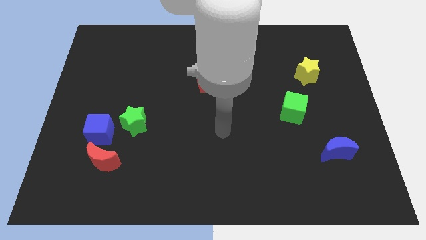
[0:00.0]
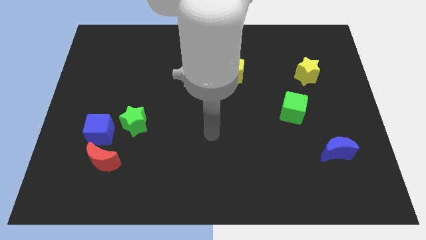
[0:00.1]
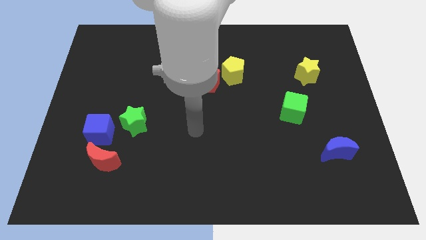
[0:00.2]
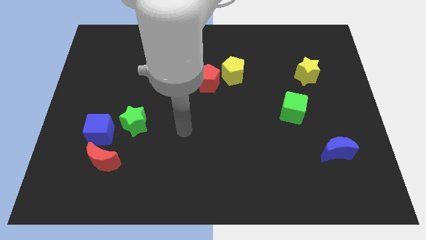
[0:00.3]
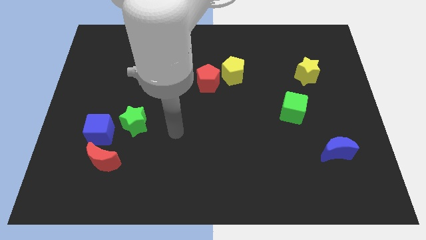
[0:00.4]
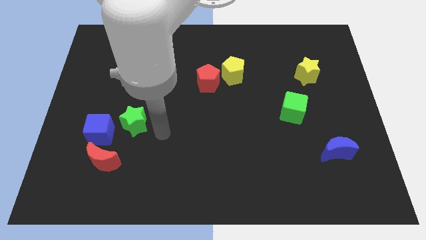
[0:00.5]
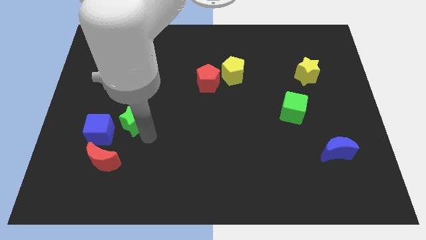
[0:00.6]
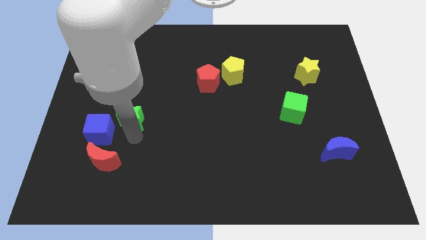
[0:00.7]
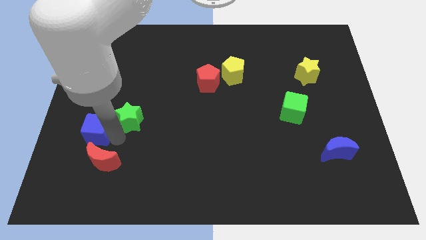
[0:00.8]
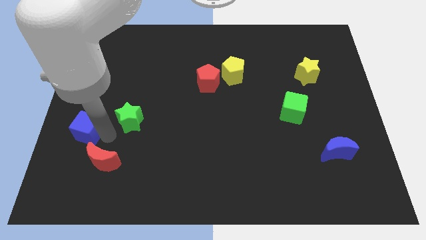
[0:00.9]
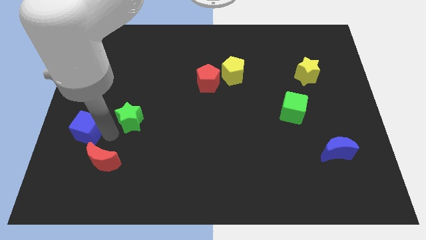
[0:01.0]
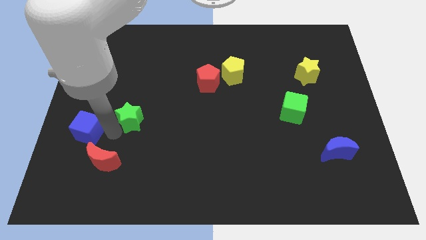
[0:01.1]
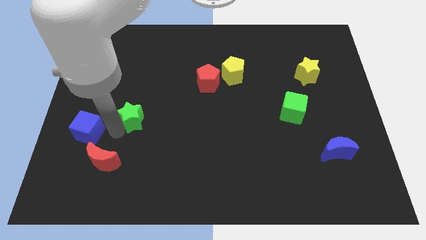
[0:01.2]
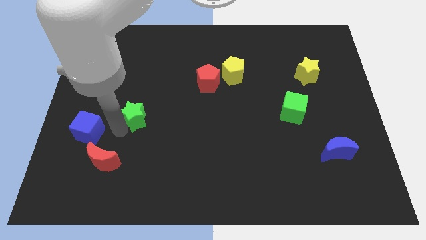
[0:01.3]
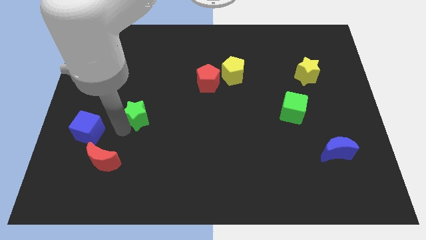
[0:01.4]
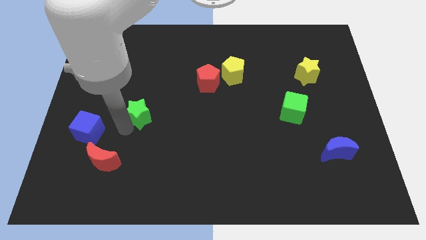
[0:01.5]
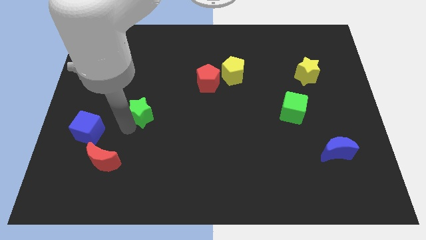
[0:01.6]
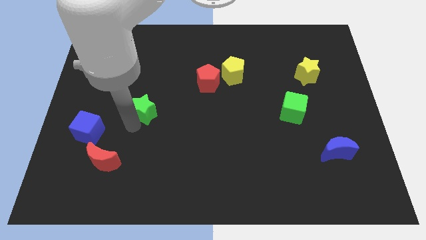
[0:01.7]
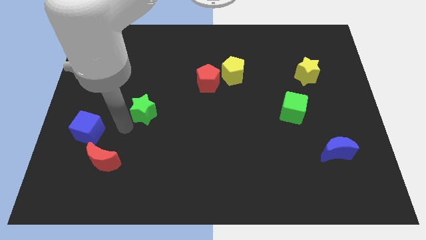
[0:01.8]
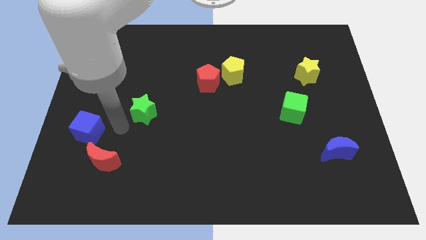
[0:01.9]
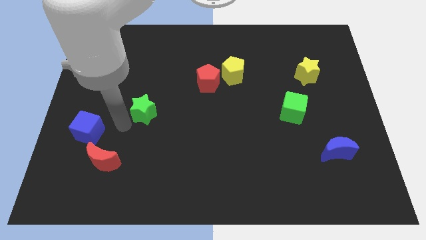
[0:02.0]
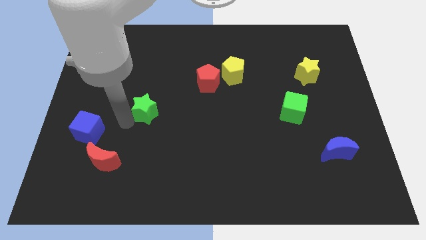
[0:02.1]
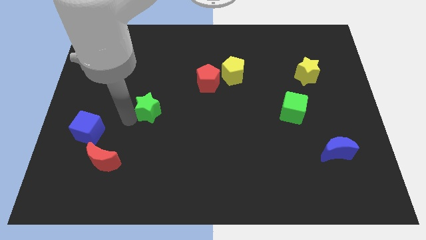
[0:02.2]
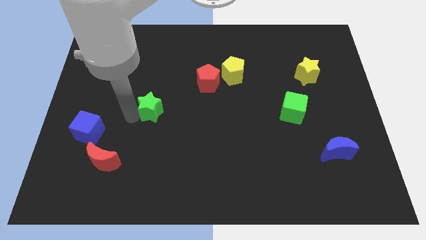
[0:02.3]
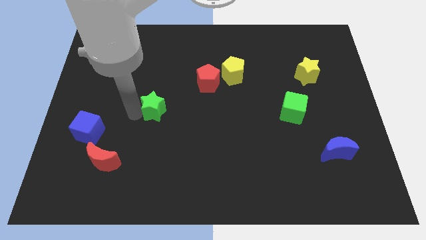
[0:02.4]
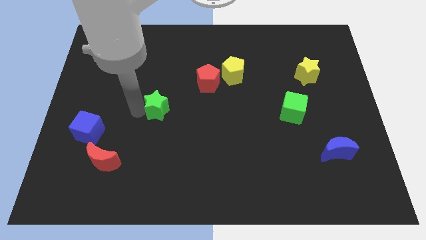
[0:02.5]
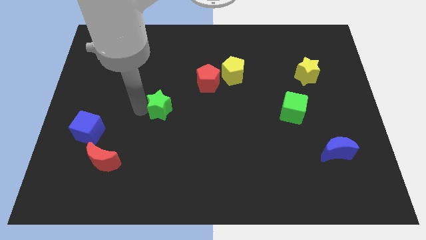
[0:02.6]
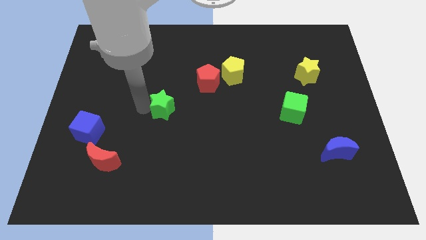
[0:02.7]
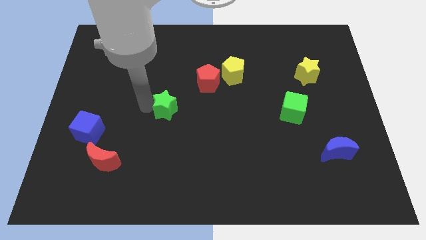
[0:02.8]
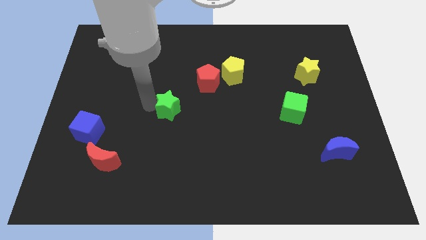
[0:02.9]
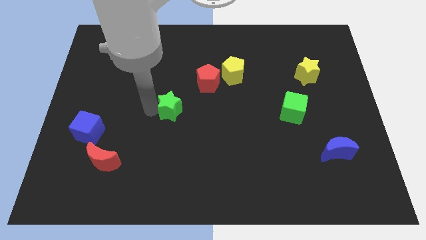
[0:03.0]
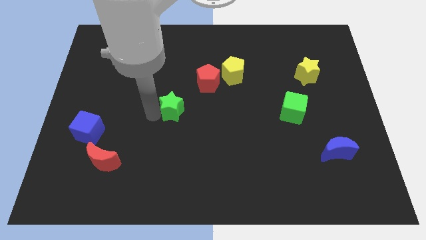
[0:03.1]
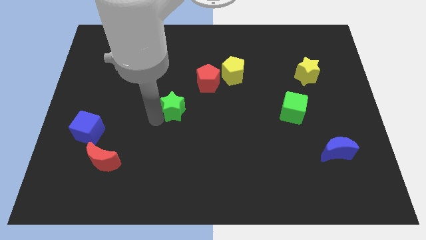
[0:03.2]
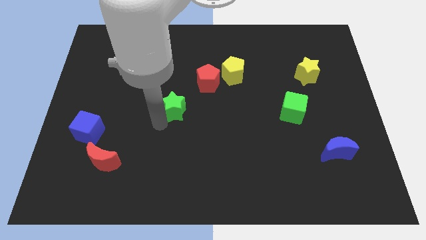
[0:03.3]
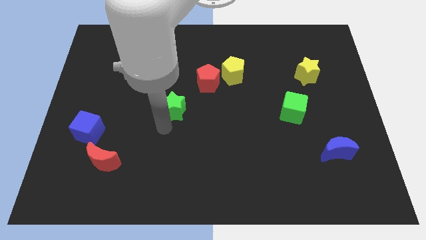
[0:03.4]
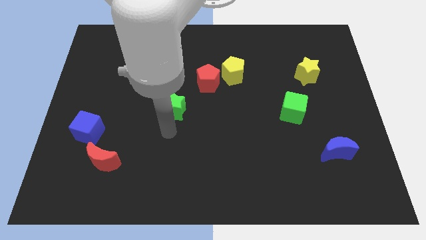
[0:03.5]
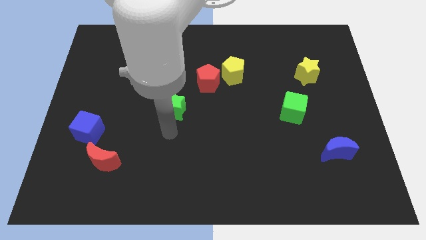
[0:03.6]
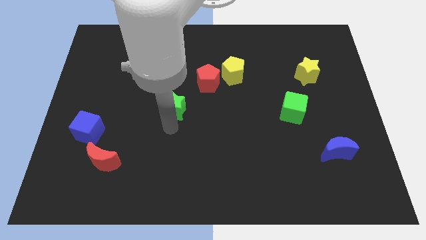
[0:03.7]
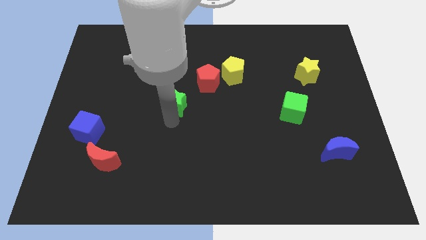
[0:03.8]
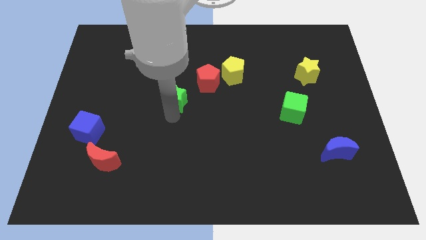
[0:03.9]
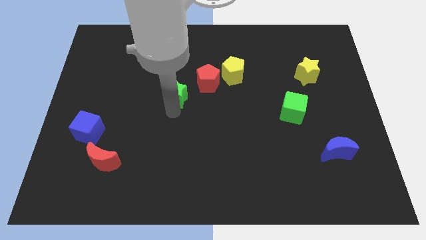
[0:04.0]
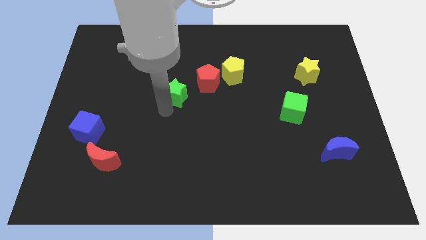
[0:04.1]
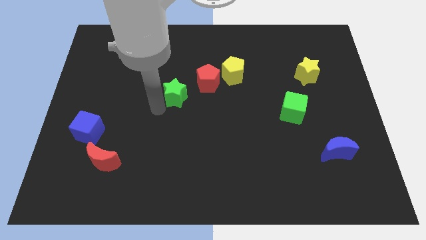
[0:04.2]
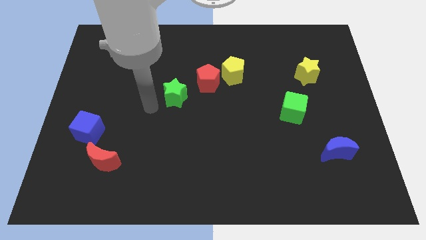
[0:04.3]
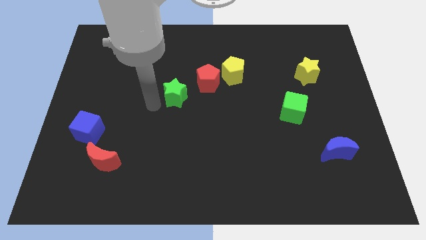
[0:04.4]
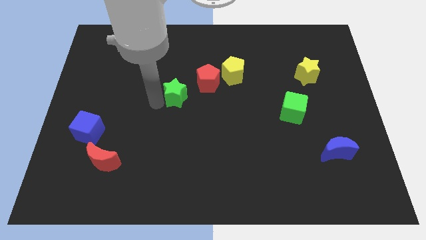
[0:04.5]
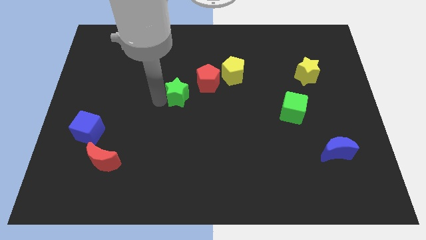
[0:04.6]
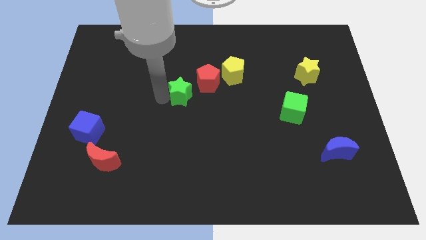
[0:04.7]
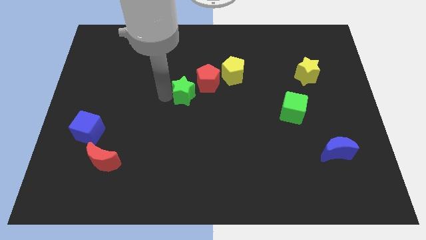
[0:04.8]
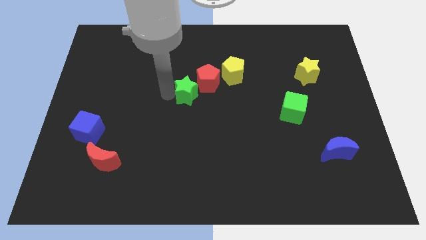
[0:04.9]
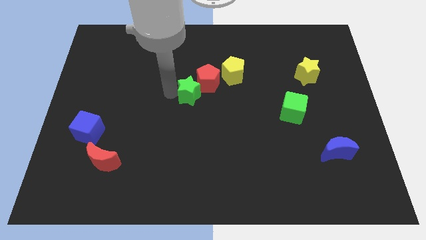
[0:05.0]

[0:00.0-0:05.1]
slide the green star next to the red pentagon

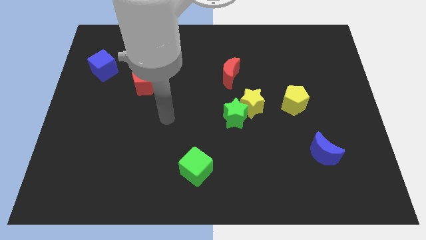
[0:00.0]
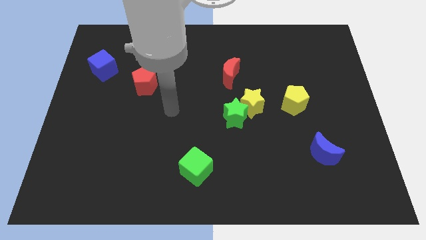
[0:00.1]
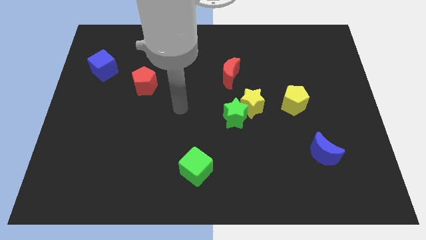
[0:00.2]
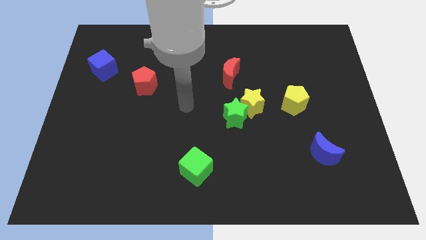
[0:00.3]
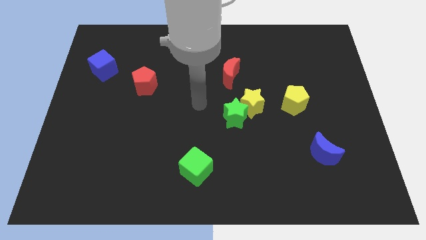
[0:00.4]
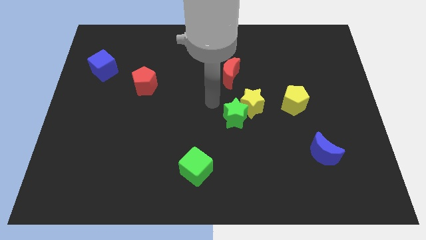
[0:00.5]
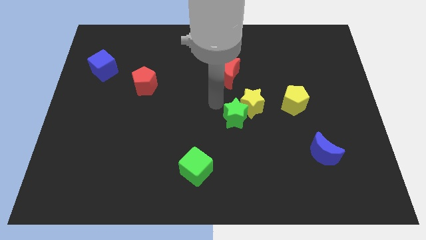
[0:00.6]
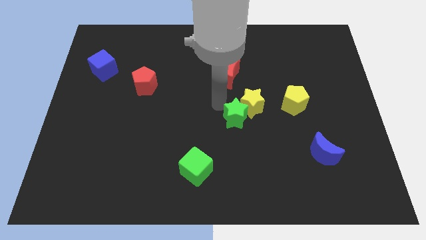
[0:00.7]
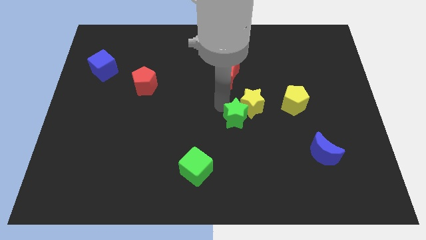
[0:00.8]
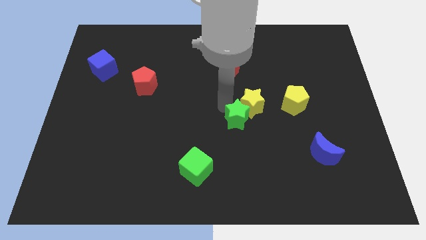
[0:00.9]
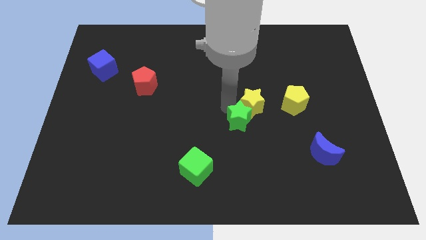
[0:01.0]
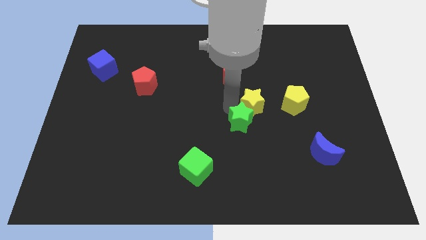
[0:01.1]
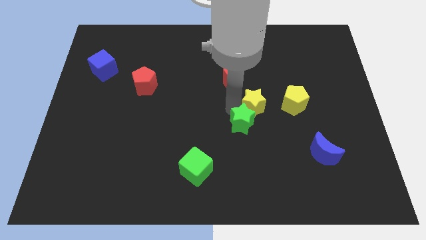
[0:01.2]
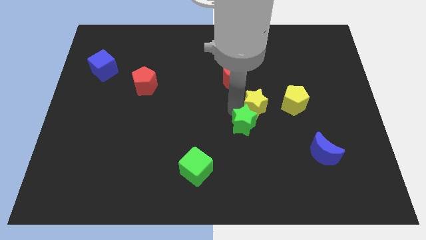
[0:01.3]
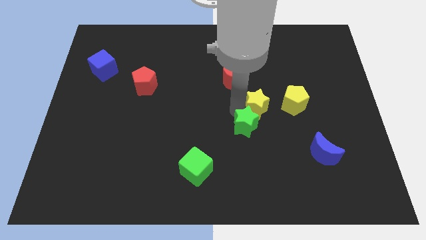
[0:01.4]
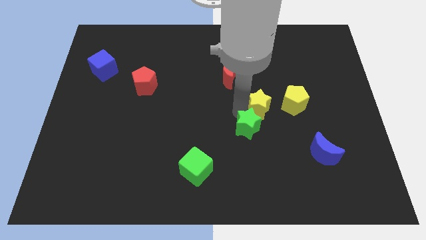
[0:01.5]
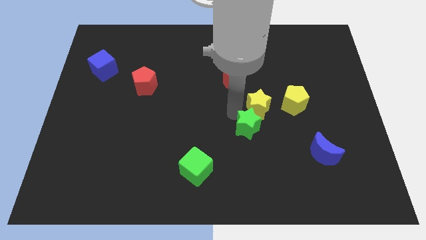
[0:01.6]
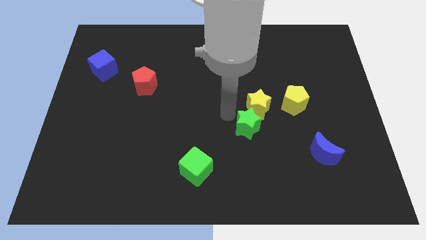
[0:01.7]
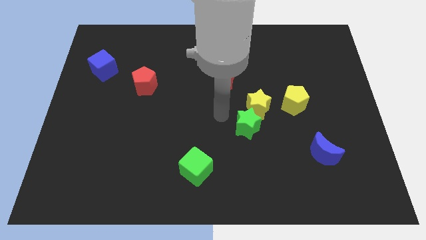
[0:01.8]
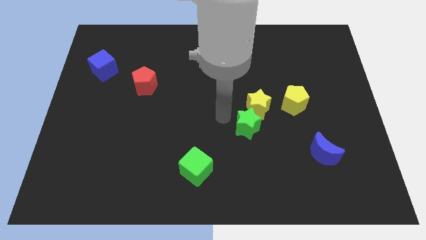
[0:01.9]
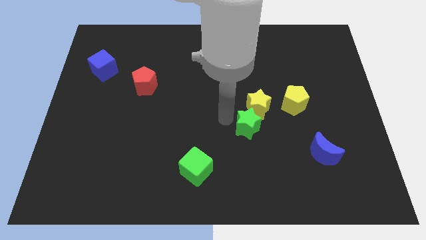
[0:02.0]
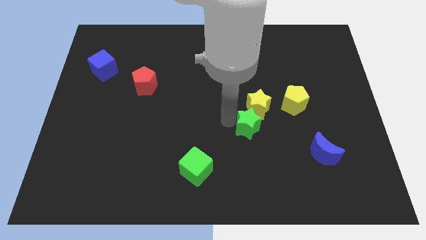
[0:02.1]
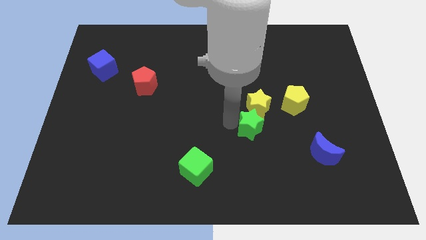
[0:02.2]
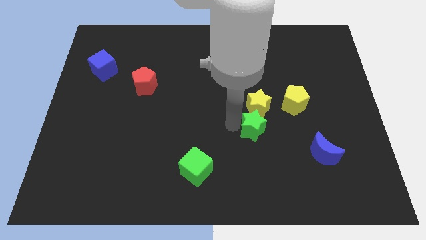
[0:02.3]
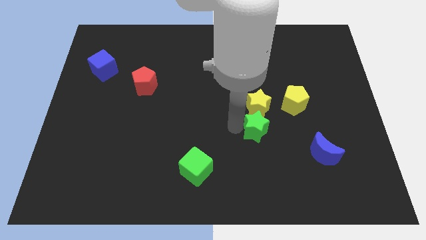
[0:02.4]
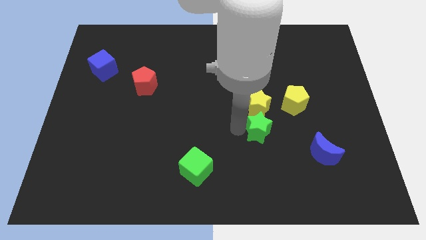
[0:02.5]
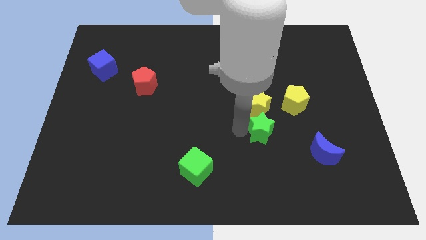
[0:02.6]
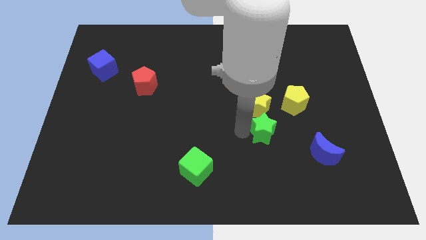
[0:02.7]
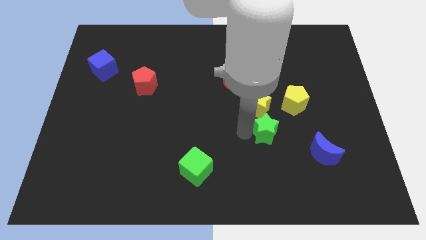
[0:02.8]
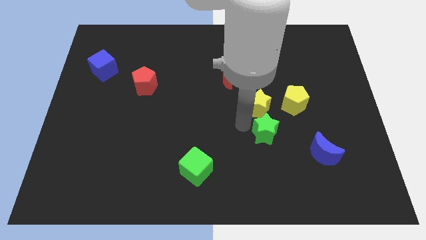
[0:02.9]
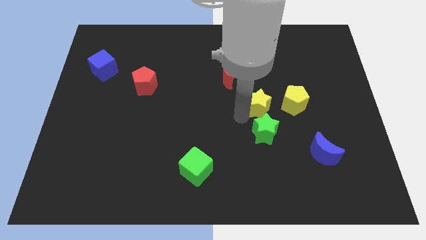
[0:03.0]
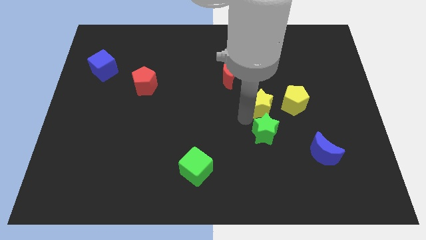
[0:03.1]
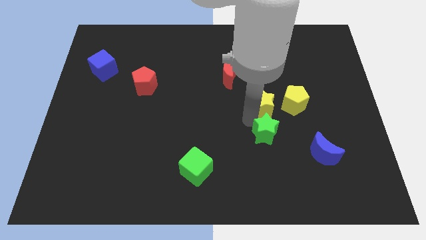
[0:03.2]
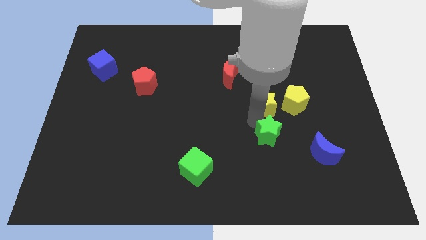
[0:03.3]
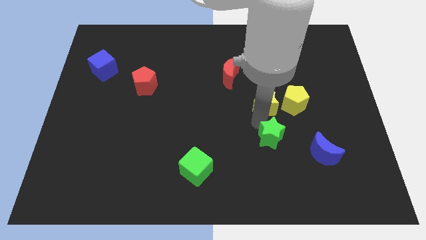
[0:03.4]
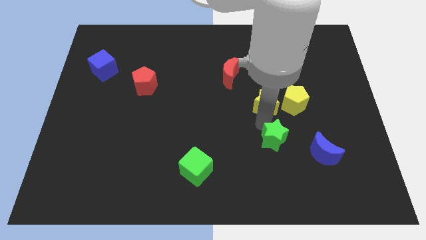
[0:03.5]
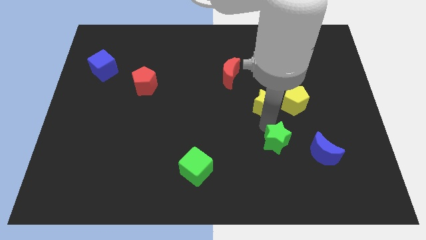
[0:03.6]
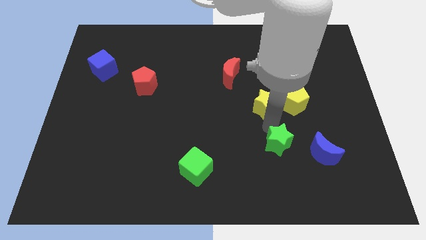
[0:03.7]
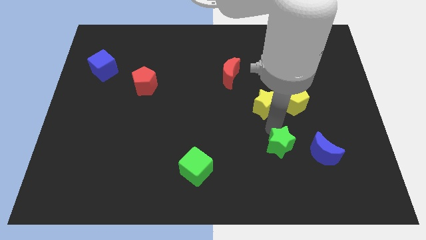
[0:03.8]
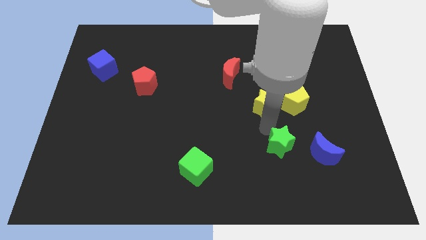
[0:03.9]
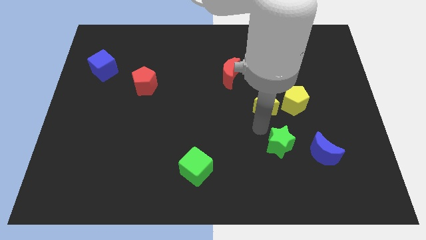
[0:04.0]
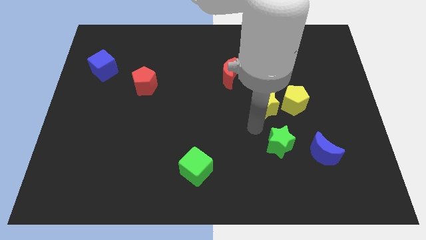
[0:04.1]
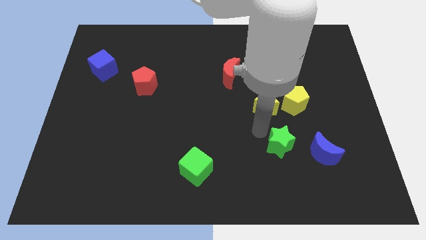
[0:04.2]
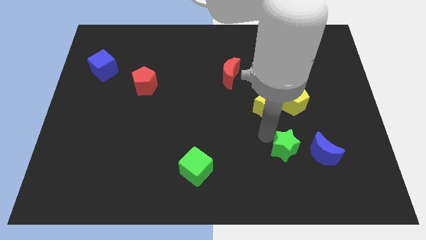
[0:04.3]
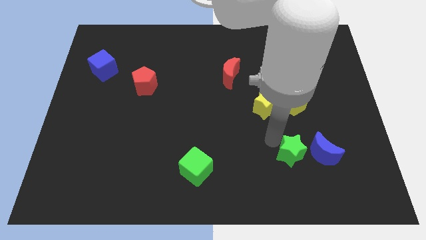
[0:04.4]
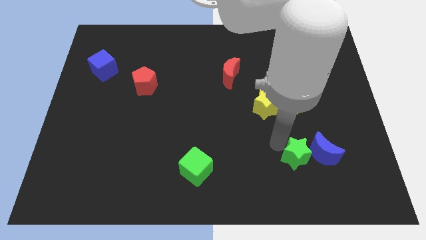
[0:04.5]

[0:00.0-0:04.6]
slide the green star close to the blue moon
